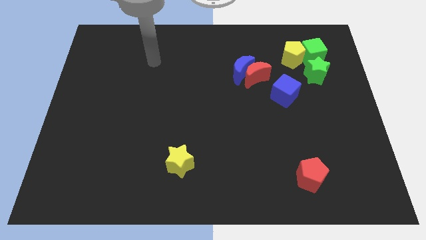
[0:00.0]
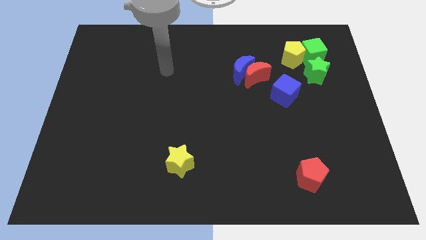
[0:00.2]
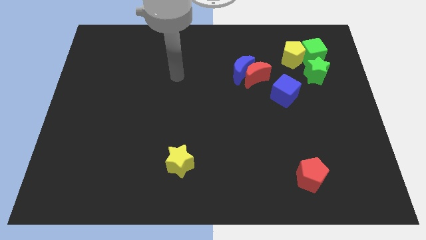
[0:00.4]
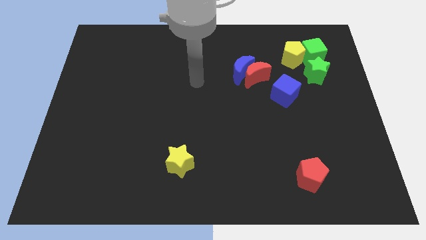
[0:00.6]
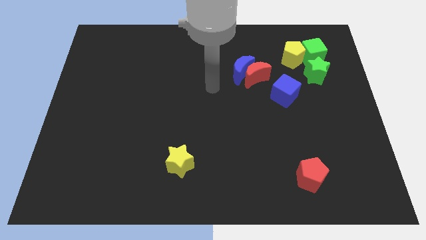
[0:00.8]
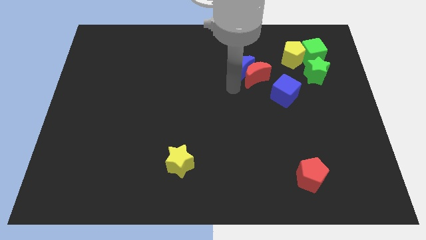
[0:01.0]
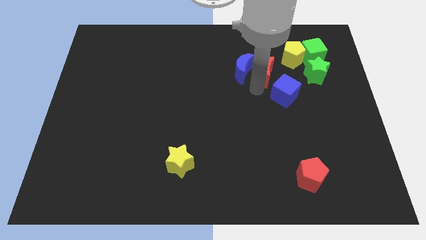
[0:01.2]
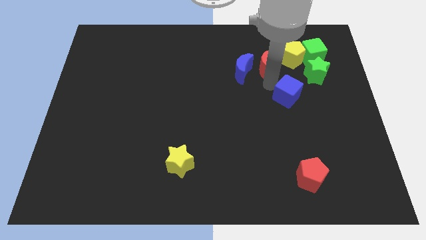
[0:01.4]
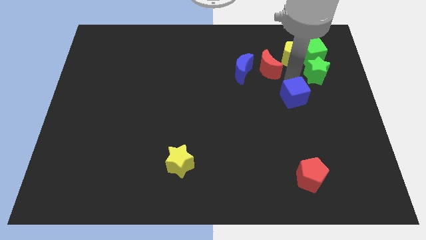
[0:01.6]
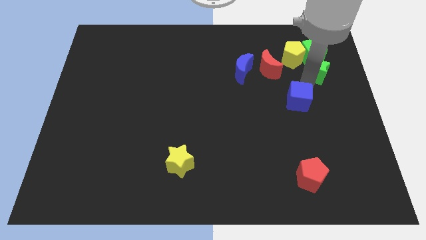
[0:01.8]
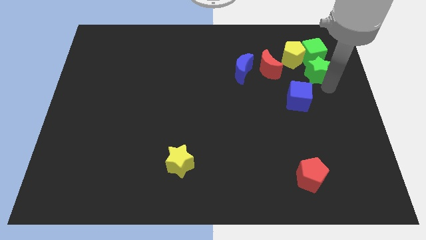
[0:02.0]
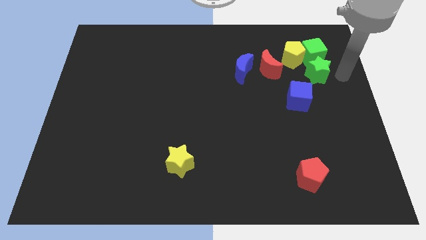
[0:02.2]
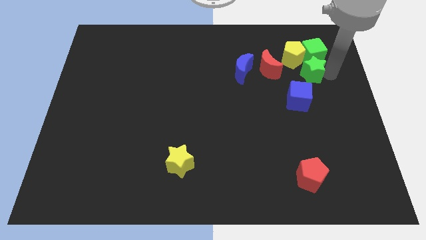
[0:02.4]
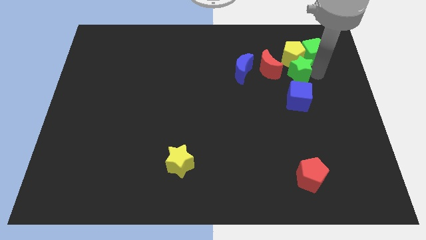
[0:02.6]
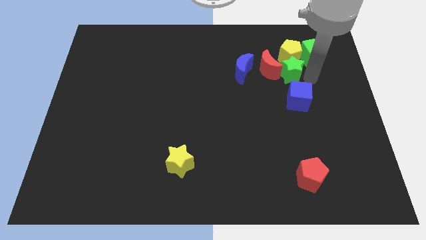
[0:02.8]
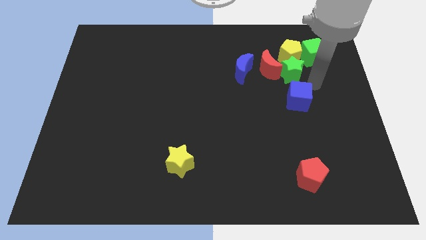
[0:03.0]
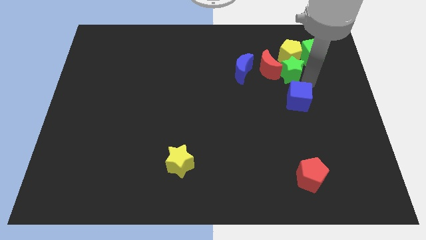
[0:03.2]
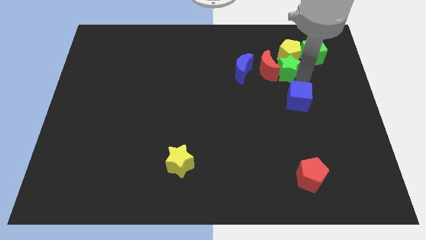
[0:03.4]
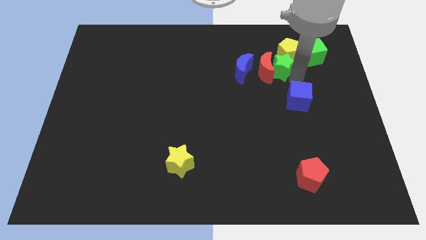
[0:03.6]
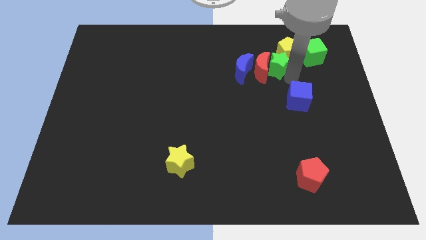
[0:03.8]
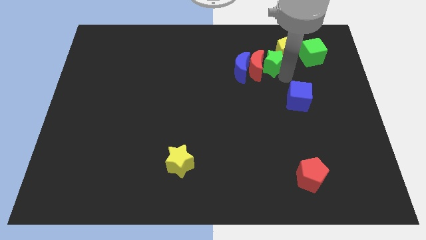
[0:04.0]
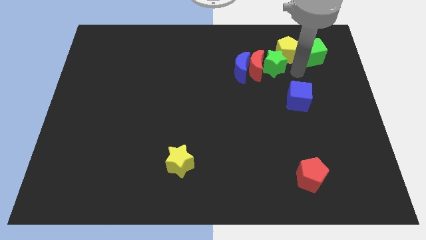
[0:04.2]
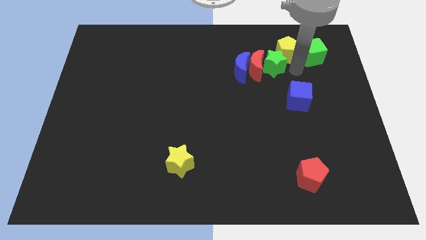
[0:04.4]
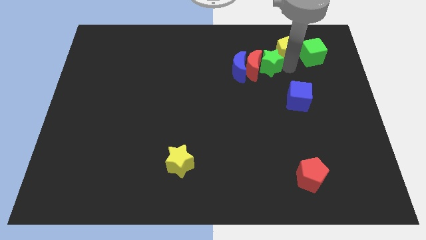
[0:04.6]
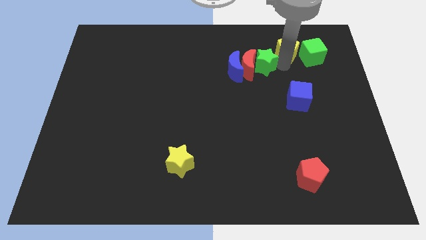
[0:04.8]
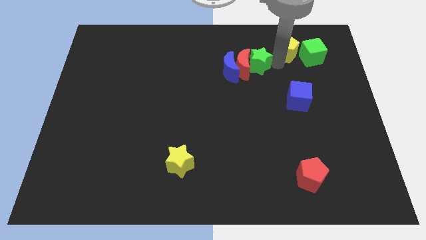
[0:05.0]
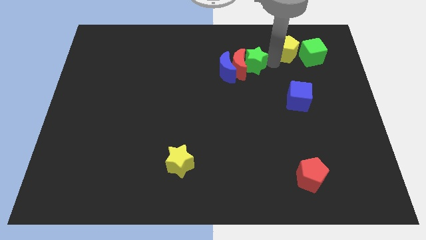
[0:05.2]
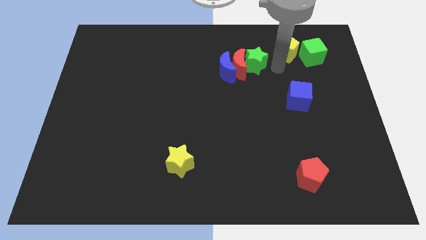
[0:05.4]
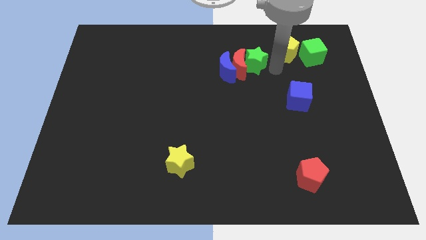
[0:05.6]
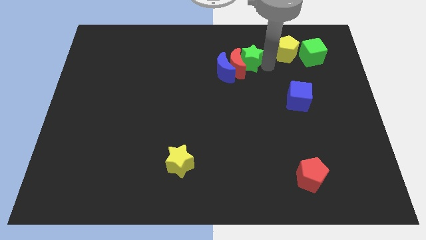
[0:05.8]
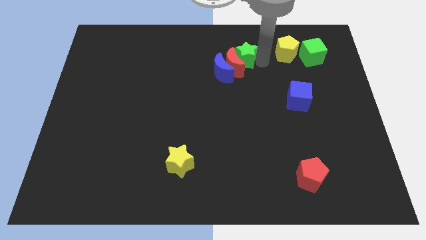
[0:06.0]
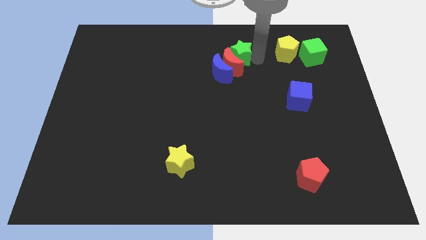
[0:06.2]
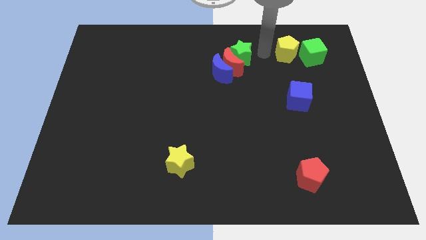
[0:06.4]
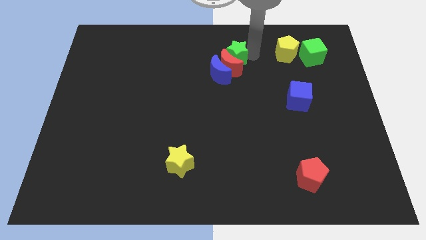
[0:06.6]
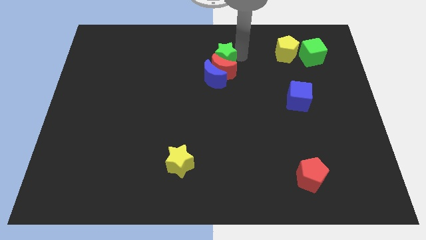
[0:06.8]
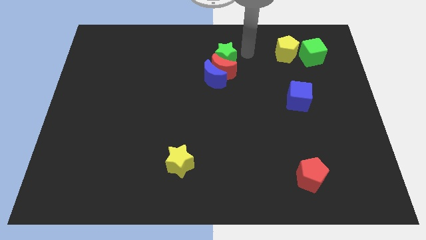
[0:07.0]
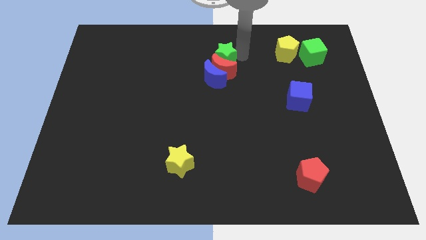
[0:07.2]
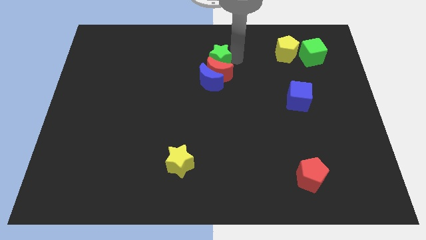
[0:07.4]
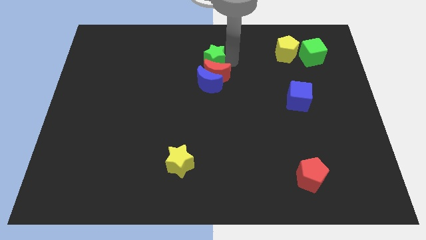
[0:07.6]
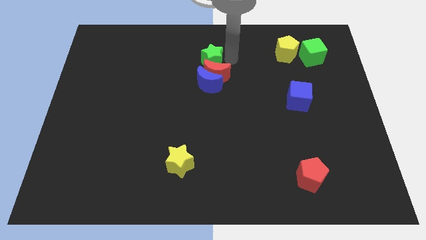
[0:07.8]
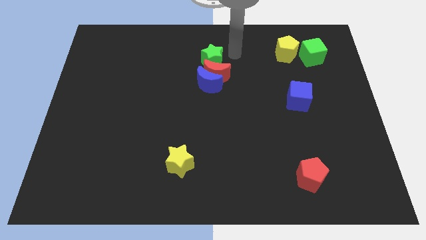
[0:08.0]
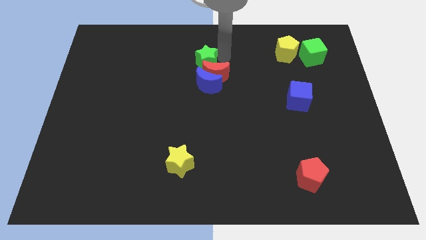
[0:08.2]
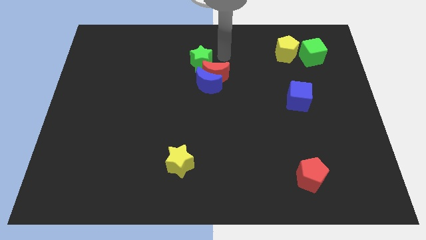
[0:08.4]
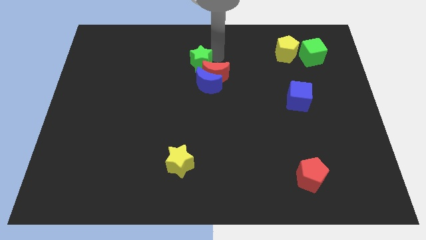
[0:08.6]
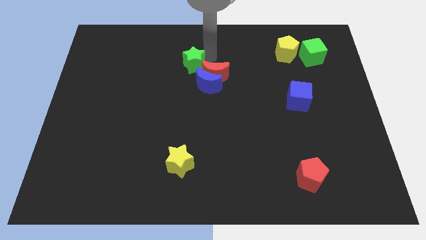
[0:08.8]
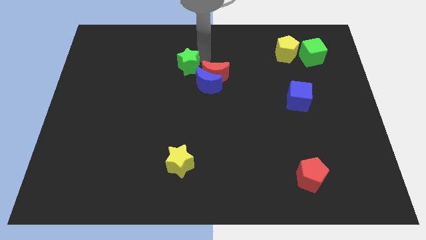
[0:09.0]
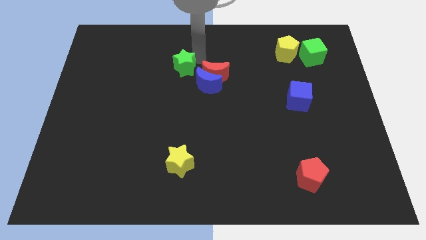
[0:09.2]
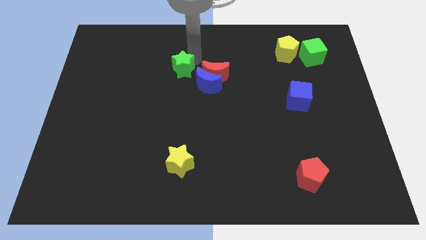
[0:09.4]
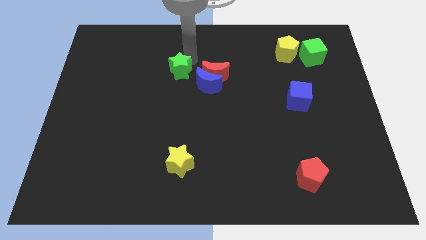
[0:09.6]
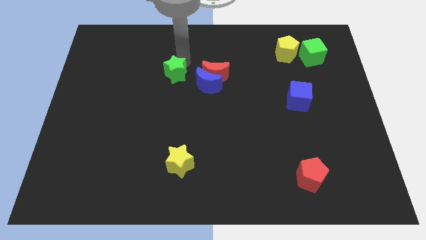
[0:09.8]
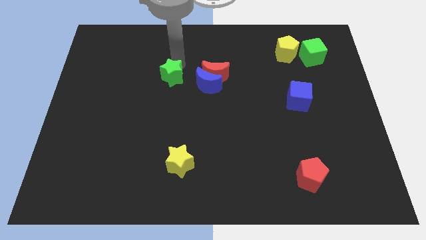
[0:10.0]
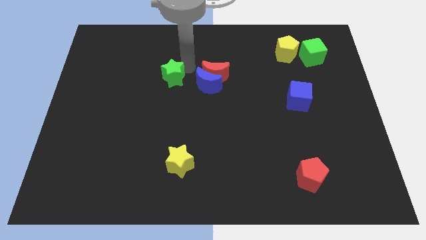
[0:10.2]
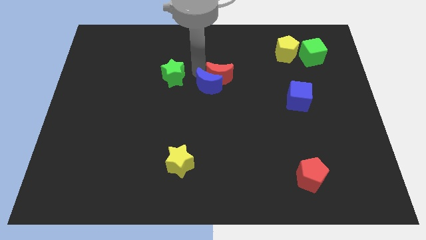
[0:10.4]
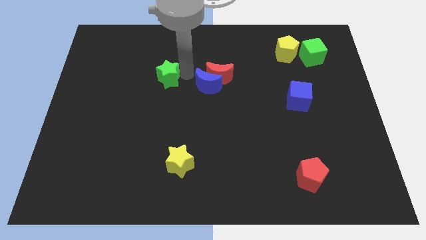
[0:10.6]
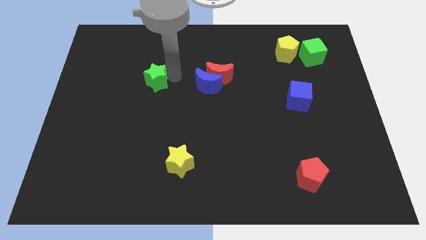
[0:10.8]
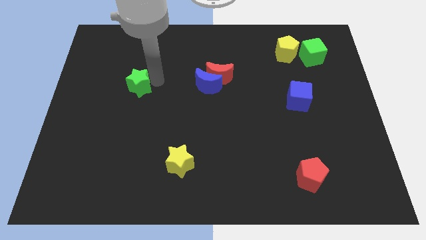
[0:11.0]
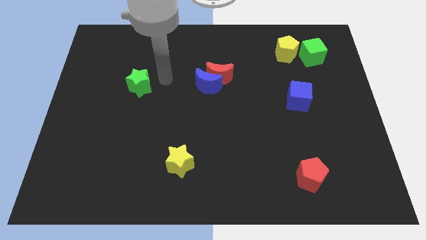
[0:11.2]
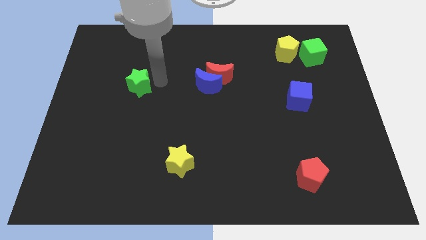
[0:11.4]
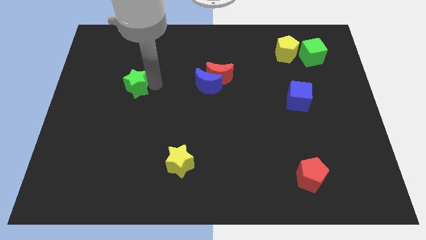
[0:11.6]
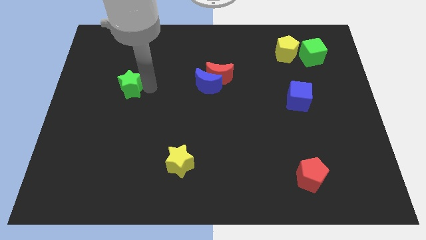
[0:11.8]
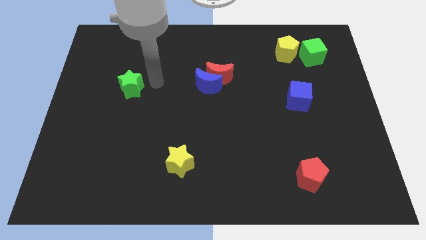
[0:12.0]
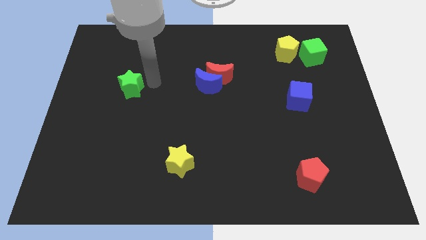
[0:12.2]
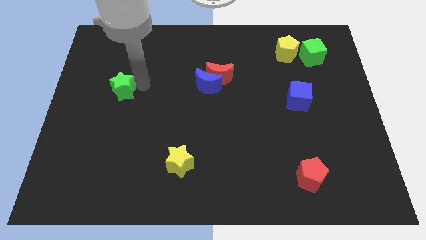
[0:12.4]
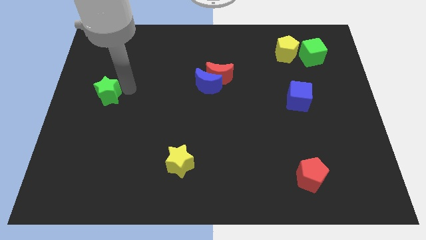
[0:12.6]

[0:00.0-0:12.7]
push the green star to the center left
